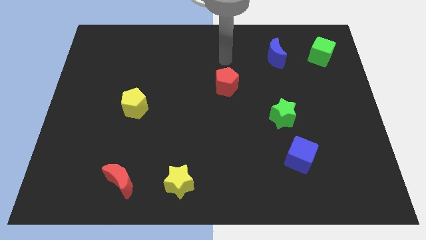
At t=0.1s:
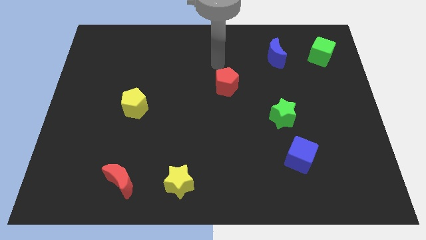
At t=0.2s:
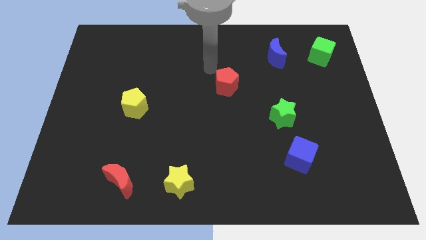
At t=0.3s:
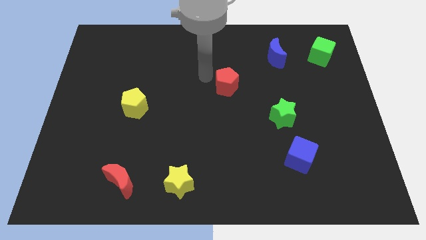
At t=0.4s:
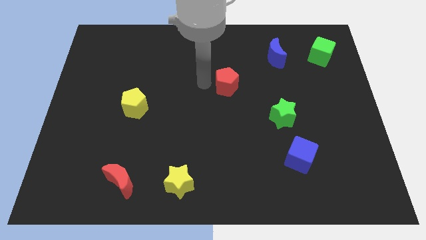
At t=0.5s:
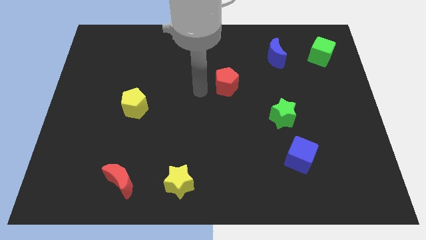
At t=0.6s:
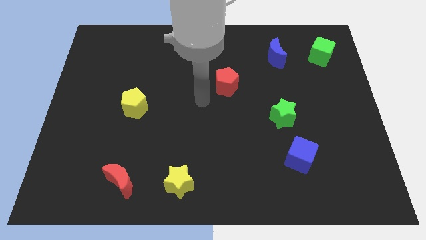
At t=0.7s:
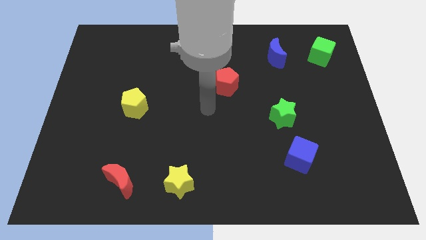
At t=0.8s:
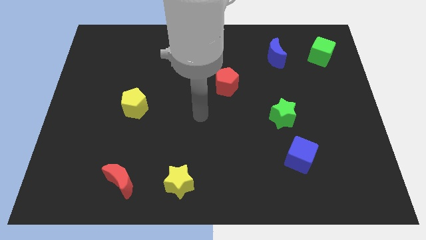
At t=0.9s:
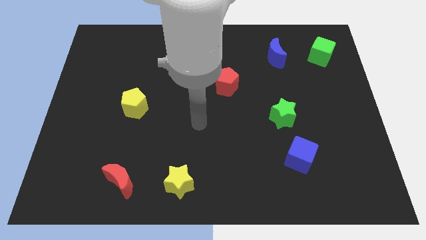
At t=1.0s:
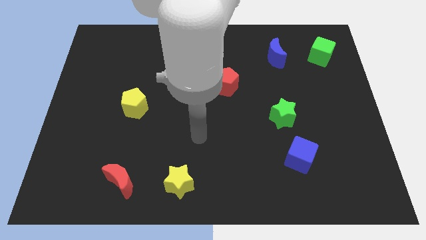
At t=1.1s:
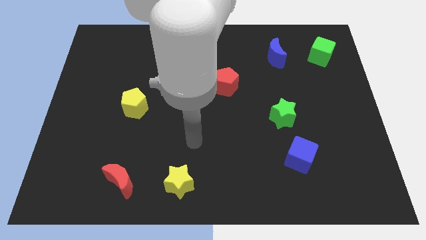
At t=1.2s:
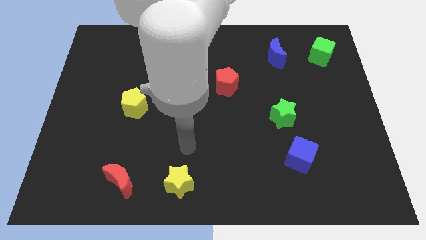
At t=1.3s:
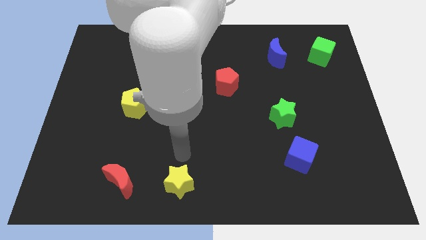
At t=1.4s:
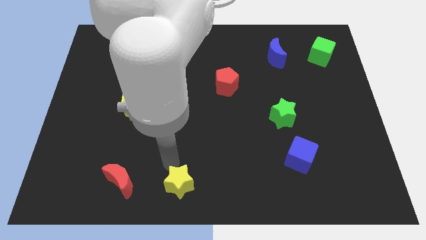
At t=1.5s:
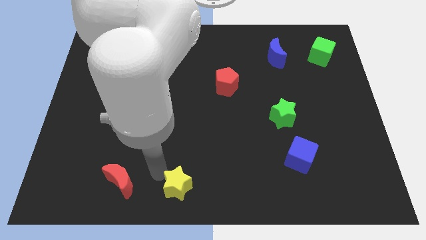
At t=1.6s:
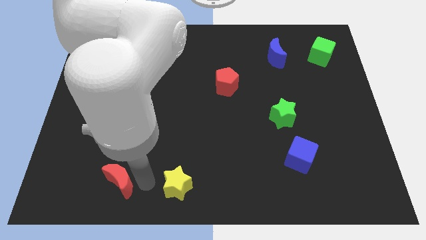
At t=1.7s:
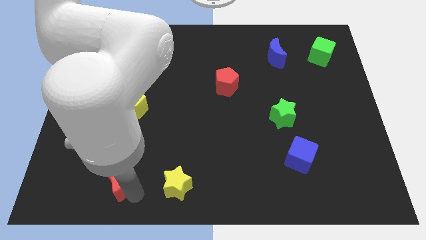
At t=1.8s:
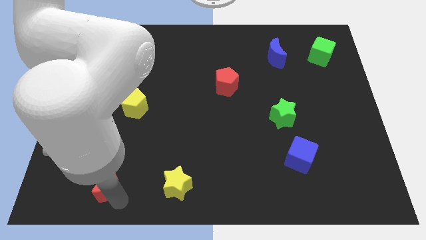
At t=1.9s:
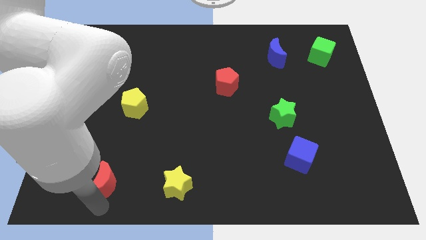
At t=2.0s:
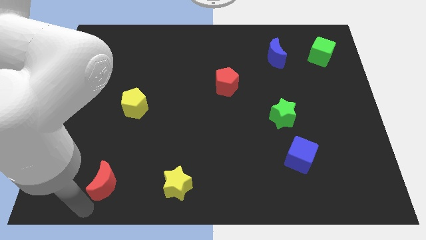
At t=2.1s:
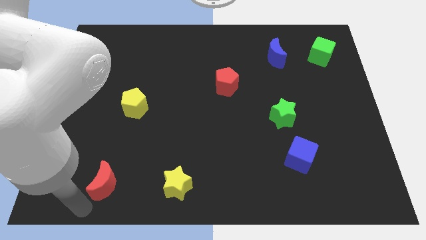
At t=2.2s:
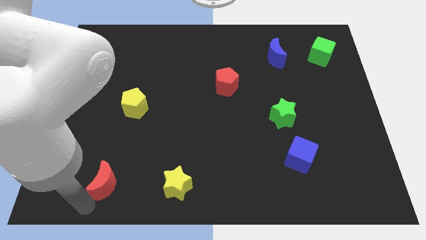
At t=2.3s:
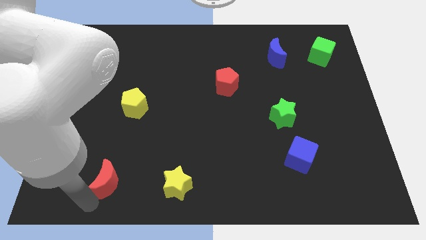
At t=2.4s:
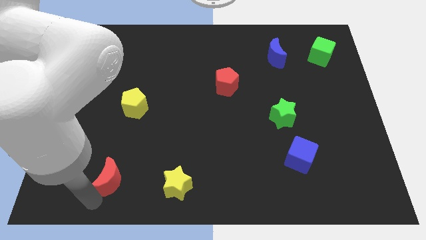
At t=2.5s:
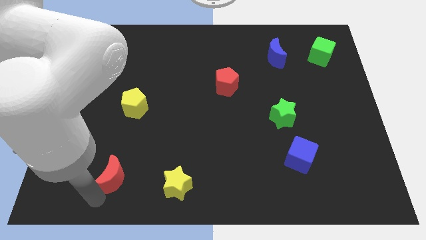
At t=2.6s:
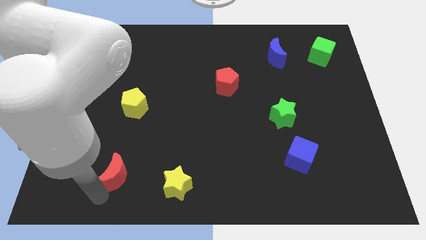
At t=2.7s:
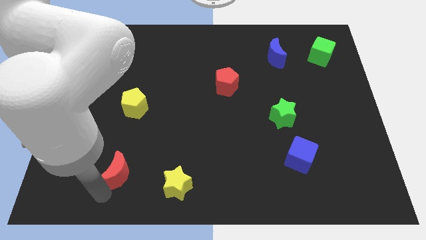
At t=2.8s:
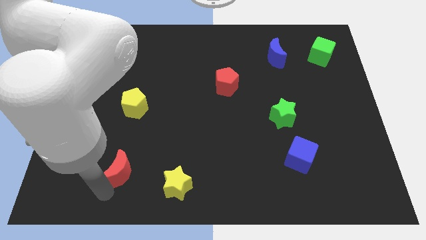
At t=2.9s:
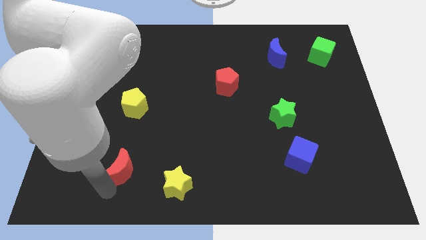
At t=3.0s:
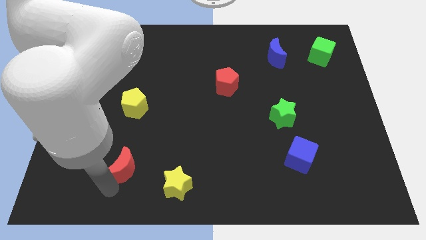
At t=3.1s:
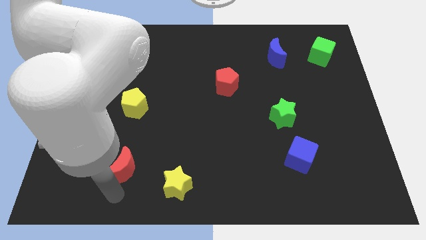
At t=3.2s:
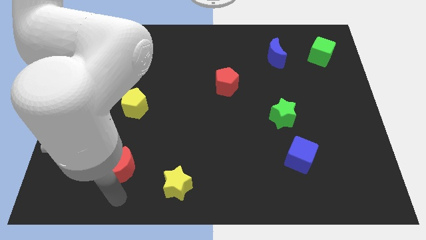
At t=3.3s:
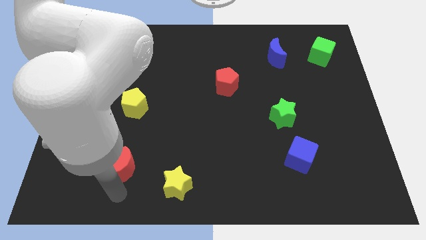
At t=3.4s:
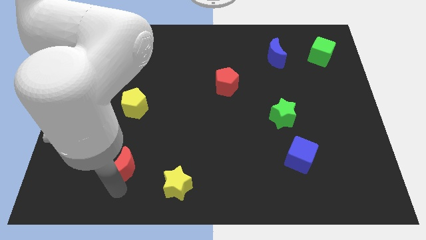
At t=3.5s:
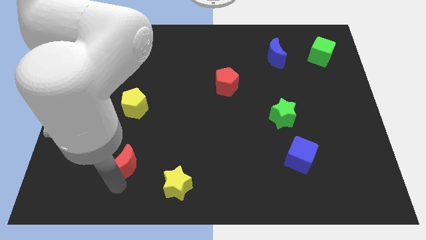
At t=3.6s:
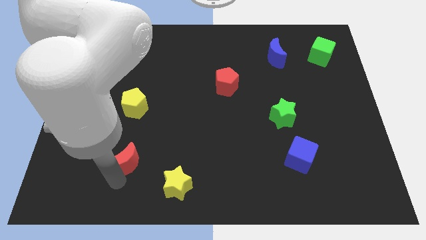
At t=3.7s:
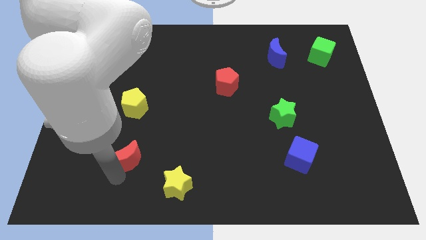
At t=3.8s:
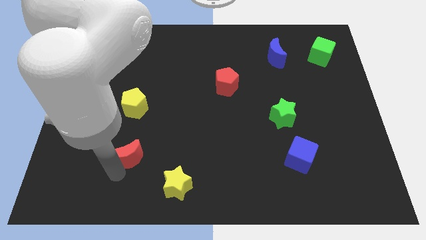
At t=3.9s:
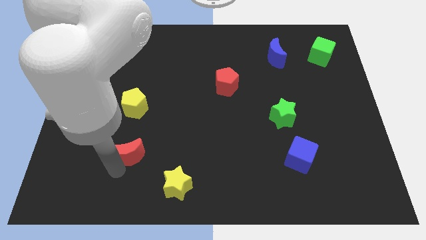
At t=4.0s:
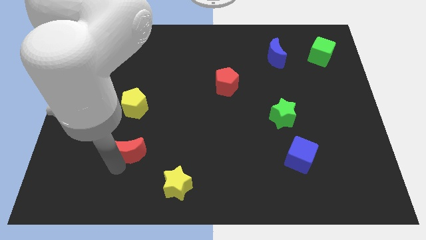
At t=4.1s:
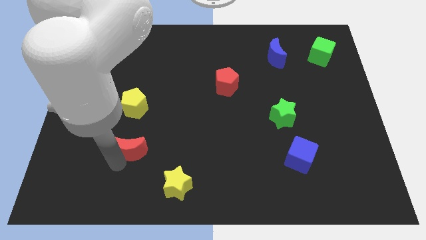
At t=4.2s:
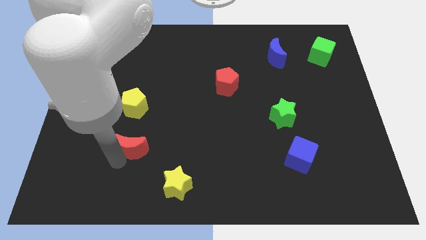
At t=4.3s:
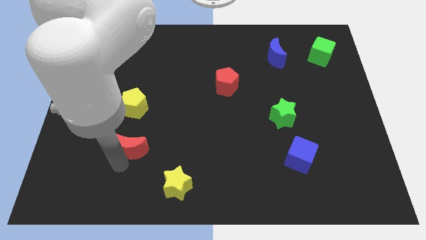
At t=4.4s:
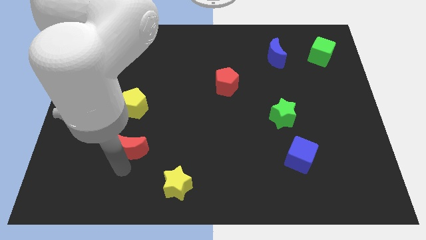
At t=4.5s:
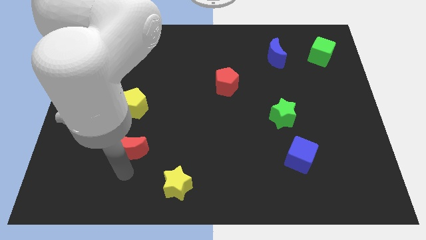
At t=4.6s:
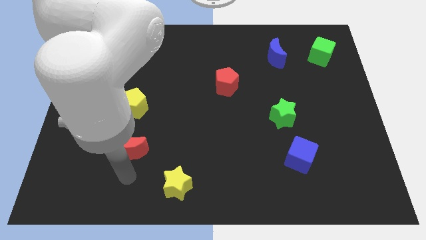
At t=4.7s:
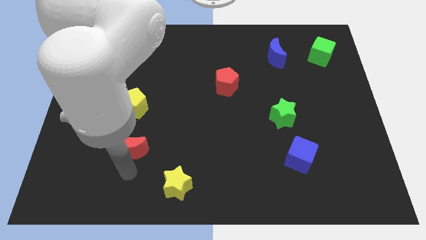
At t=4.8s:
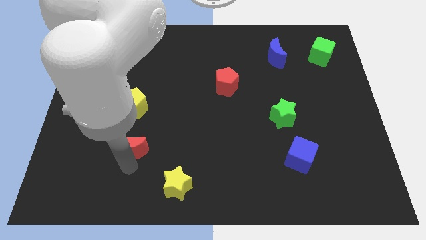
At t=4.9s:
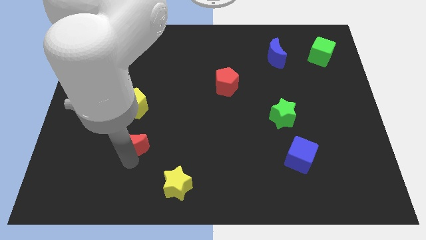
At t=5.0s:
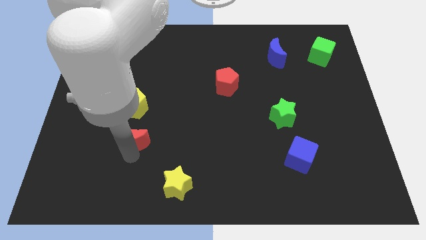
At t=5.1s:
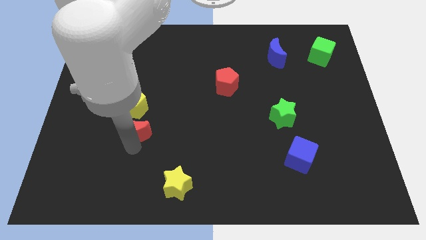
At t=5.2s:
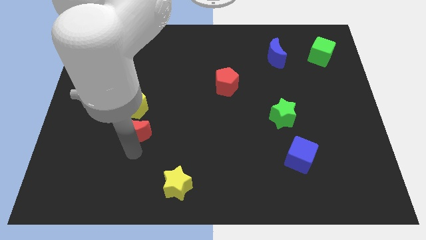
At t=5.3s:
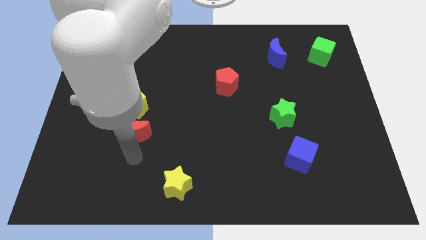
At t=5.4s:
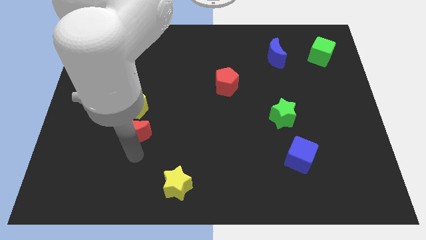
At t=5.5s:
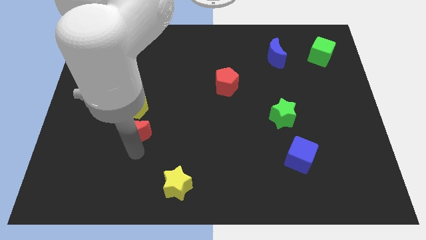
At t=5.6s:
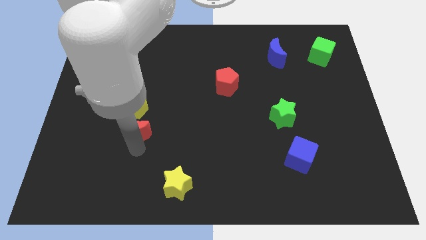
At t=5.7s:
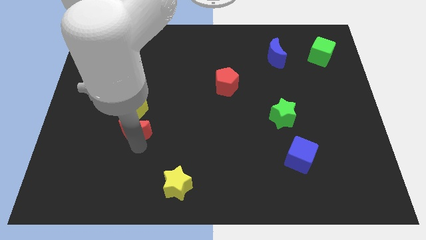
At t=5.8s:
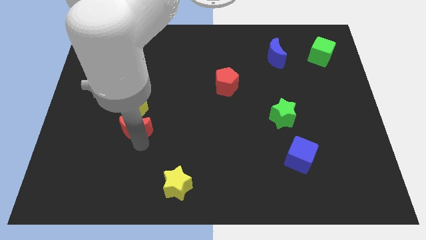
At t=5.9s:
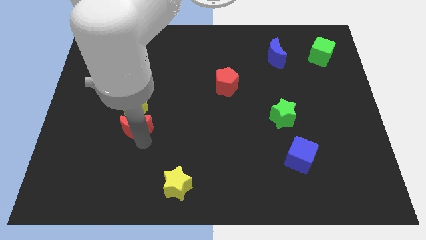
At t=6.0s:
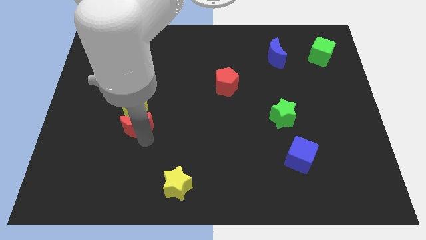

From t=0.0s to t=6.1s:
put the red moon to the yellow pentagon

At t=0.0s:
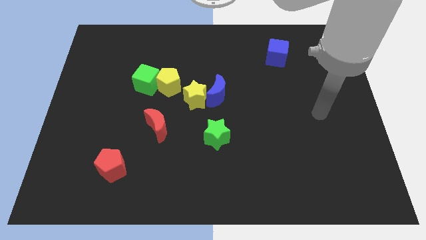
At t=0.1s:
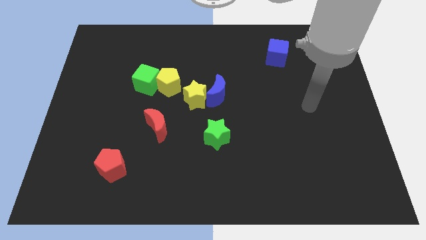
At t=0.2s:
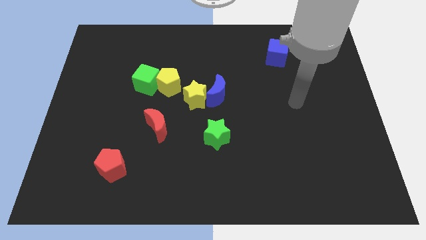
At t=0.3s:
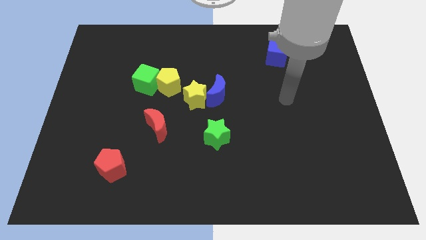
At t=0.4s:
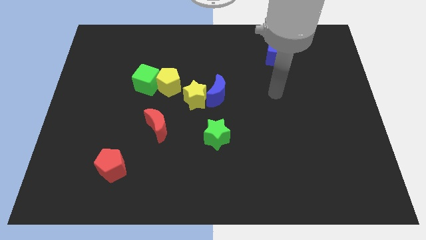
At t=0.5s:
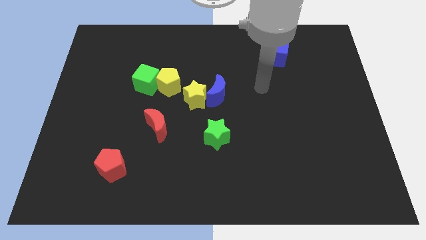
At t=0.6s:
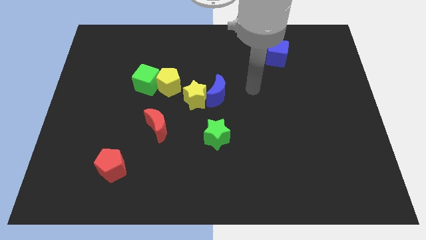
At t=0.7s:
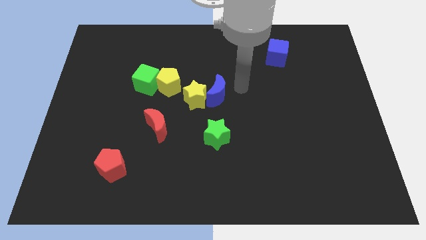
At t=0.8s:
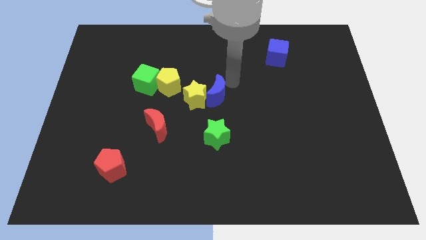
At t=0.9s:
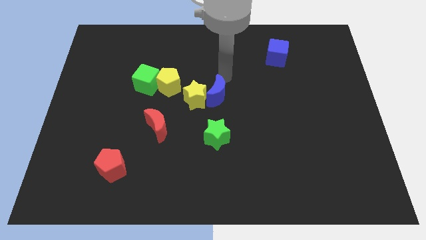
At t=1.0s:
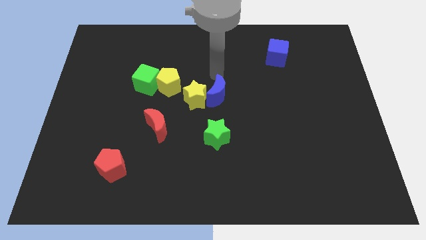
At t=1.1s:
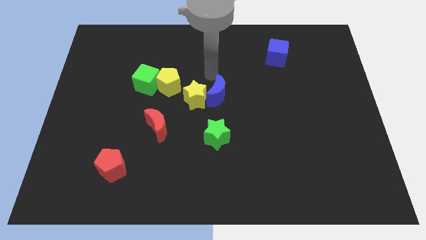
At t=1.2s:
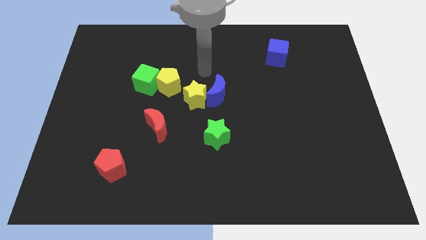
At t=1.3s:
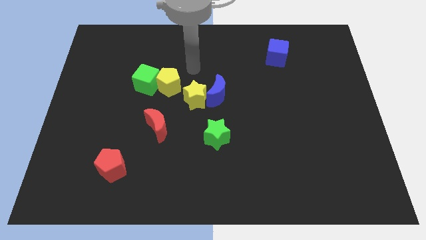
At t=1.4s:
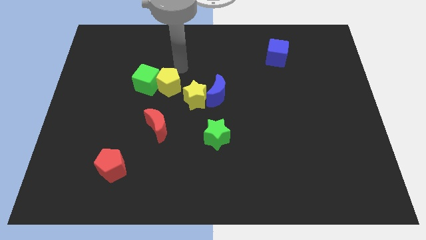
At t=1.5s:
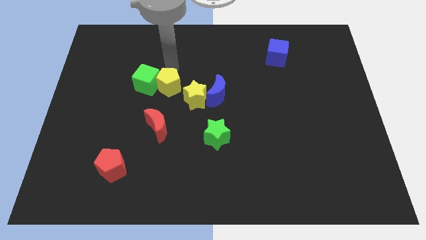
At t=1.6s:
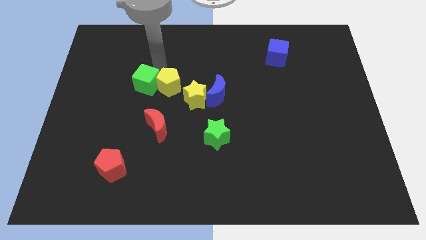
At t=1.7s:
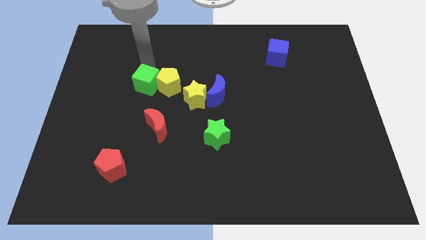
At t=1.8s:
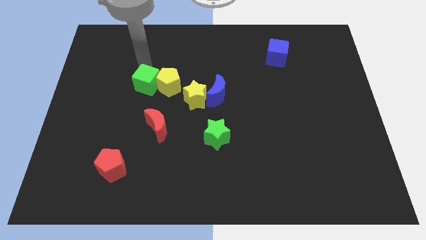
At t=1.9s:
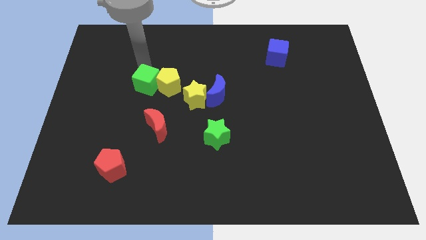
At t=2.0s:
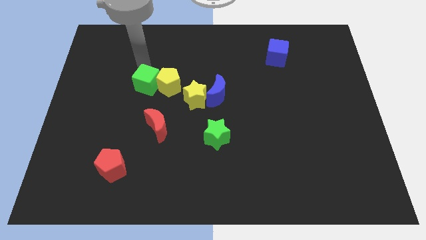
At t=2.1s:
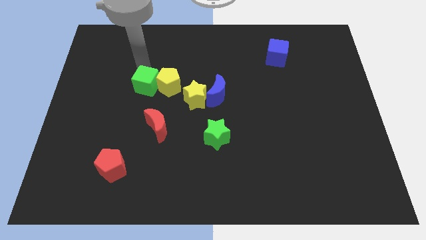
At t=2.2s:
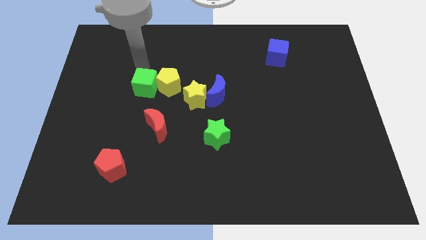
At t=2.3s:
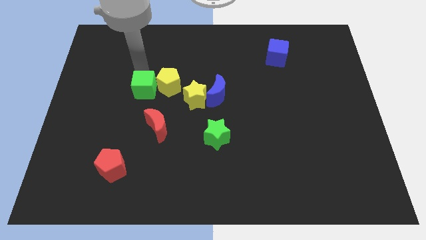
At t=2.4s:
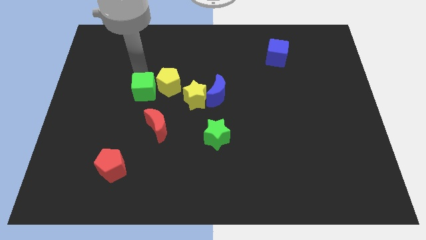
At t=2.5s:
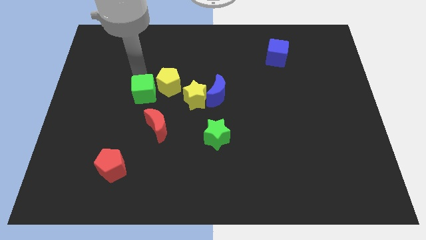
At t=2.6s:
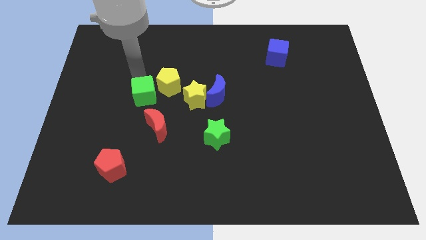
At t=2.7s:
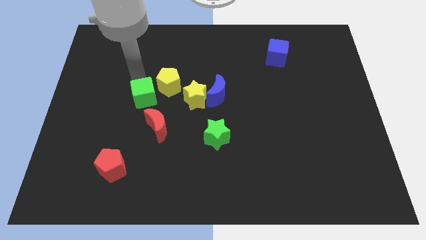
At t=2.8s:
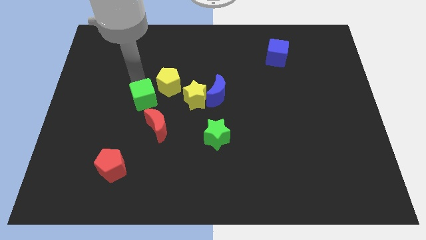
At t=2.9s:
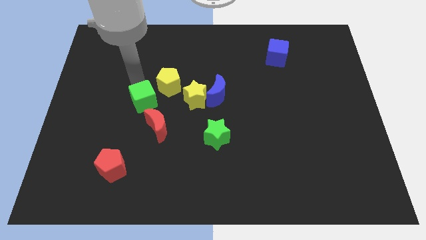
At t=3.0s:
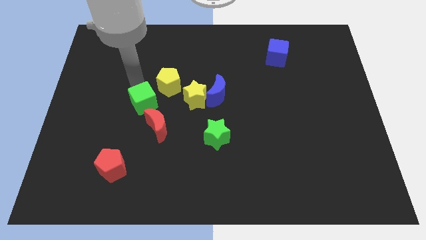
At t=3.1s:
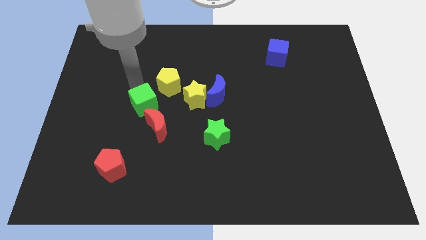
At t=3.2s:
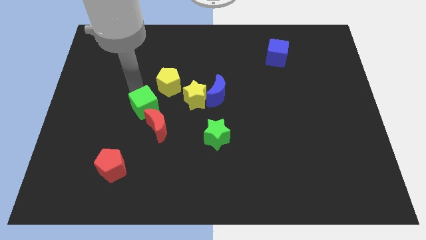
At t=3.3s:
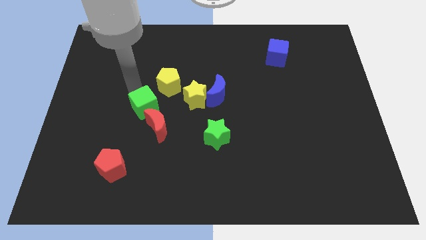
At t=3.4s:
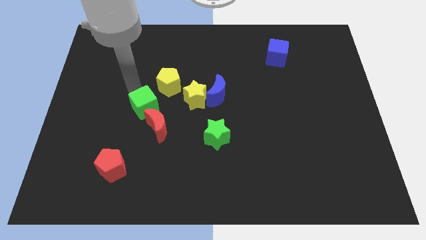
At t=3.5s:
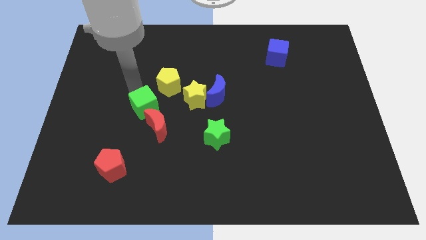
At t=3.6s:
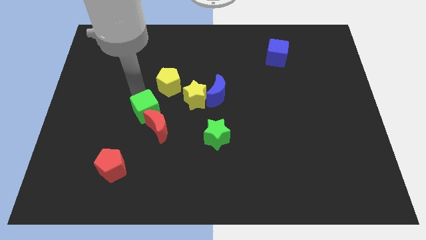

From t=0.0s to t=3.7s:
put the green cube towards the red moon
